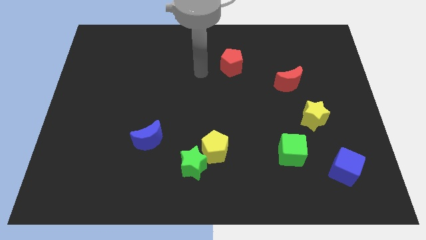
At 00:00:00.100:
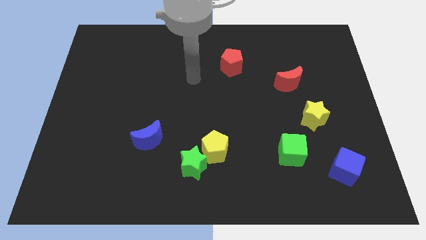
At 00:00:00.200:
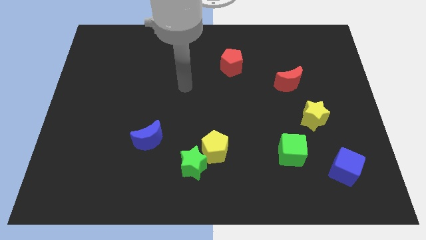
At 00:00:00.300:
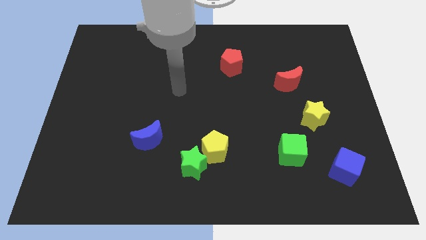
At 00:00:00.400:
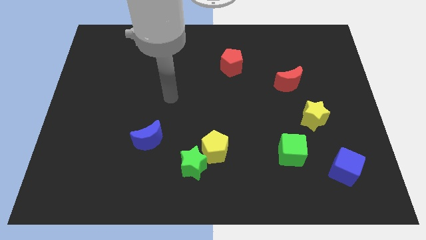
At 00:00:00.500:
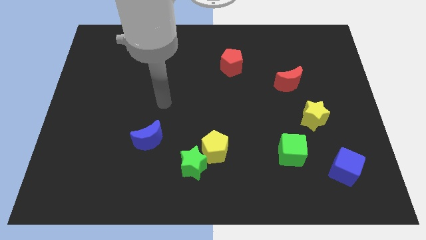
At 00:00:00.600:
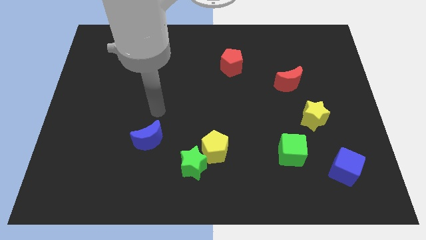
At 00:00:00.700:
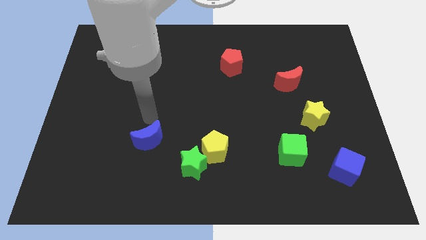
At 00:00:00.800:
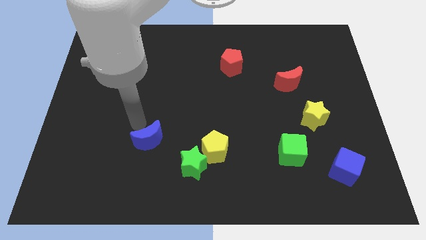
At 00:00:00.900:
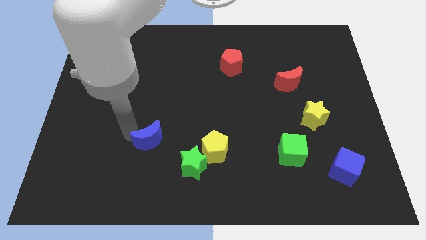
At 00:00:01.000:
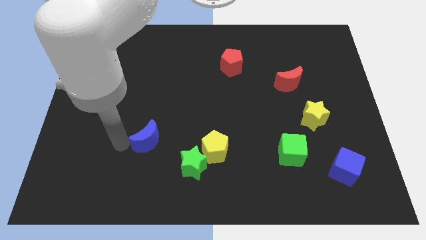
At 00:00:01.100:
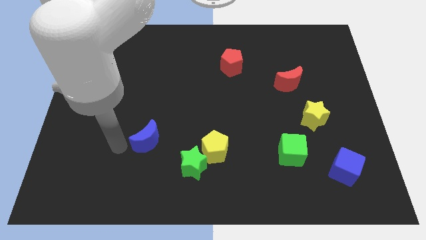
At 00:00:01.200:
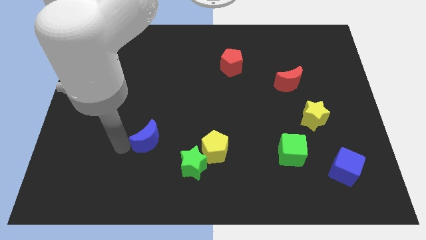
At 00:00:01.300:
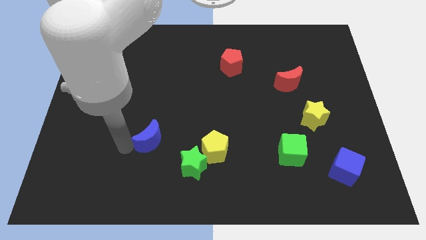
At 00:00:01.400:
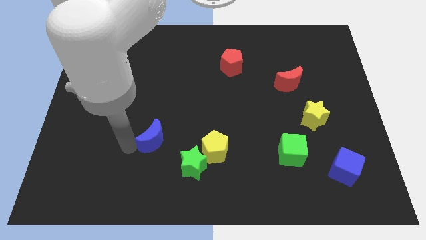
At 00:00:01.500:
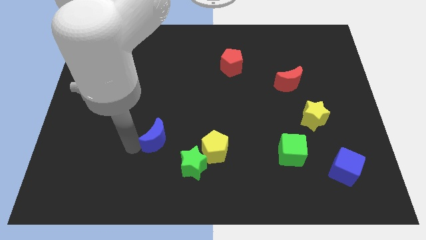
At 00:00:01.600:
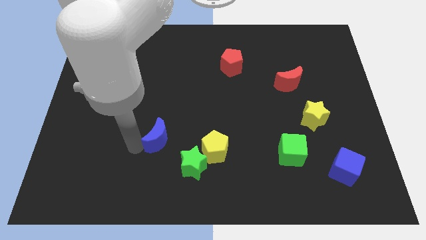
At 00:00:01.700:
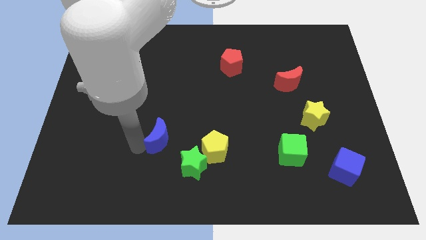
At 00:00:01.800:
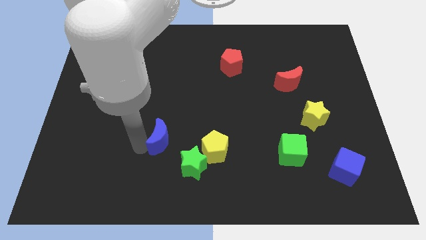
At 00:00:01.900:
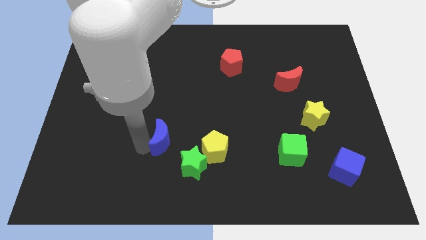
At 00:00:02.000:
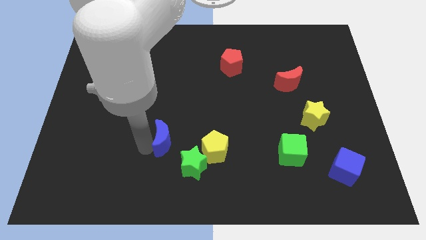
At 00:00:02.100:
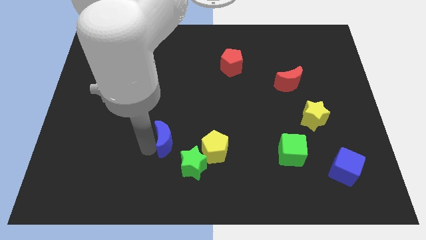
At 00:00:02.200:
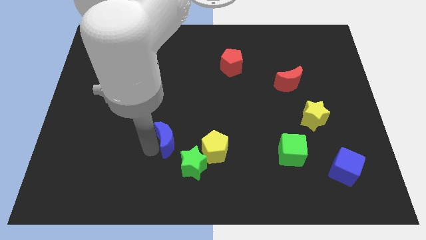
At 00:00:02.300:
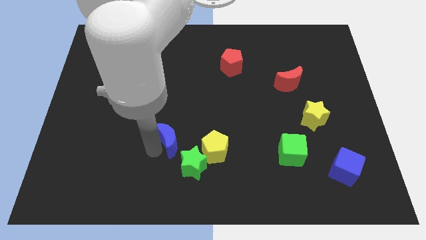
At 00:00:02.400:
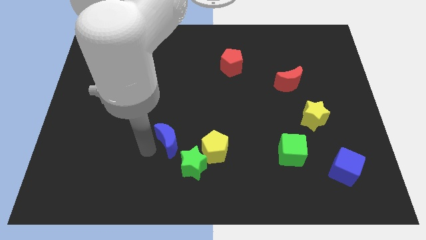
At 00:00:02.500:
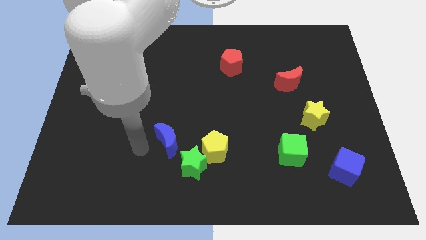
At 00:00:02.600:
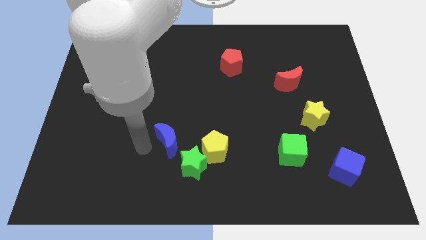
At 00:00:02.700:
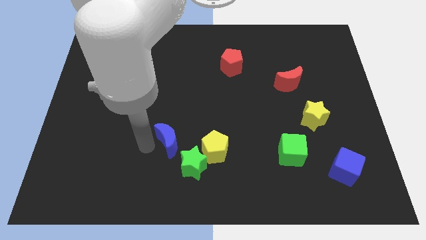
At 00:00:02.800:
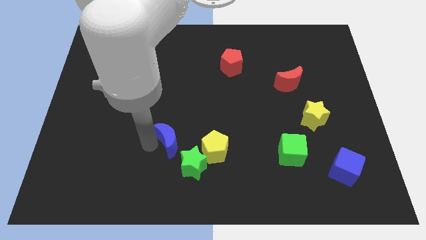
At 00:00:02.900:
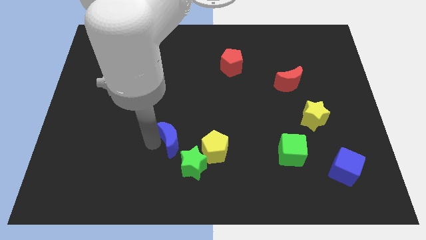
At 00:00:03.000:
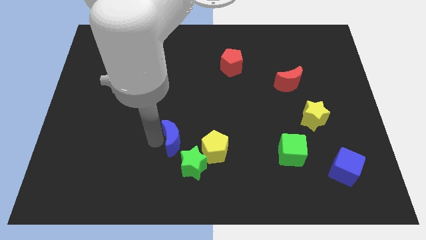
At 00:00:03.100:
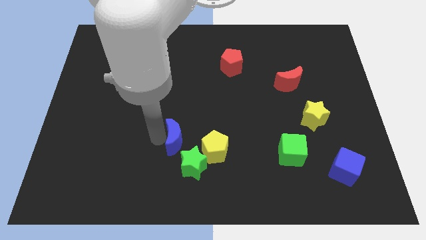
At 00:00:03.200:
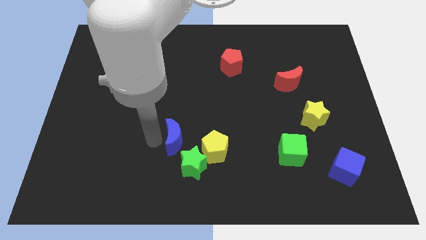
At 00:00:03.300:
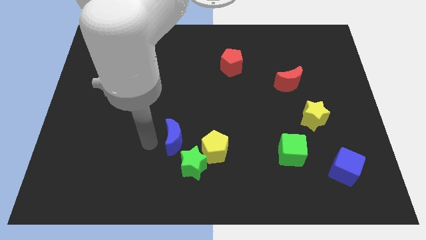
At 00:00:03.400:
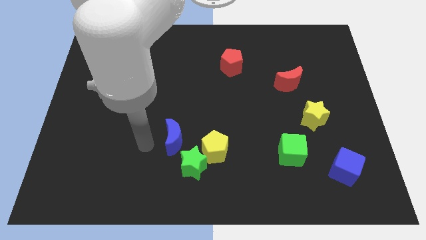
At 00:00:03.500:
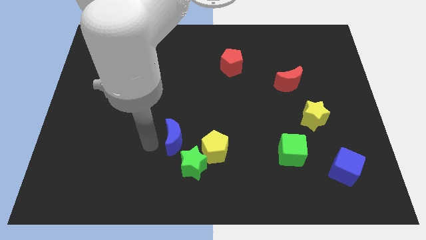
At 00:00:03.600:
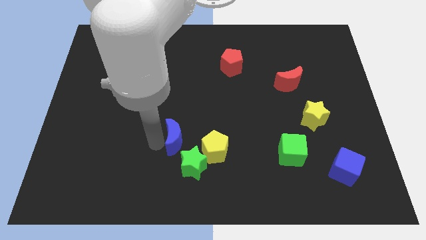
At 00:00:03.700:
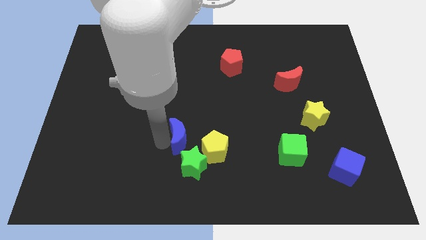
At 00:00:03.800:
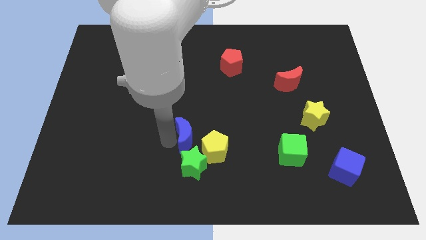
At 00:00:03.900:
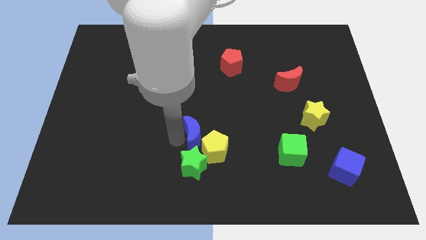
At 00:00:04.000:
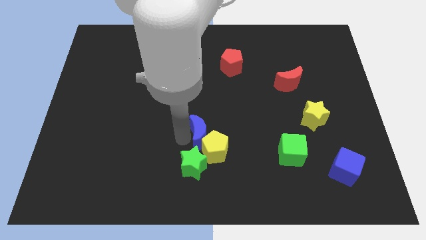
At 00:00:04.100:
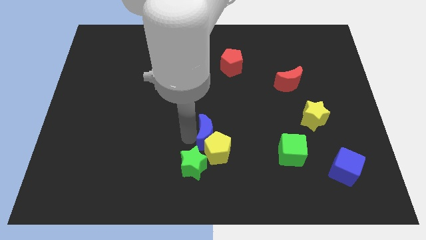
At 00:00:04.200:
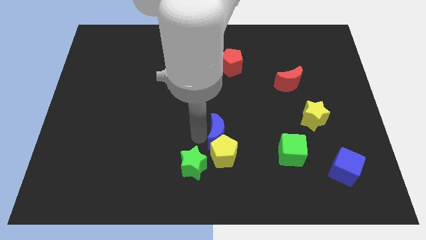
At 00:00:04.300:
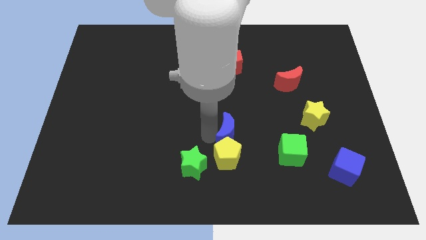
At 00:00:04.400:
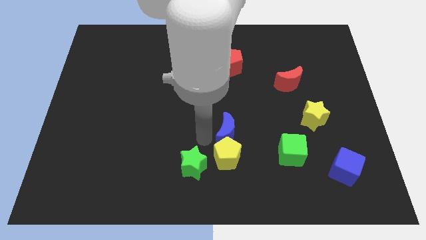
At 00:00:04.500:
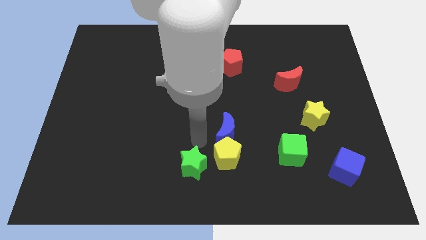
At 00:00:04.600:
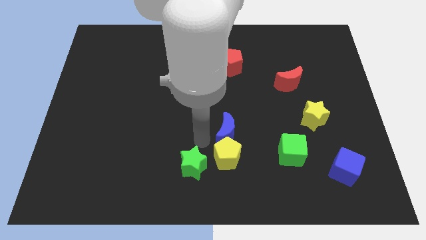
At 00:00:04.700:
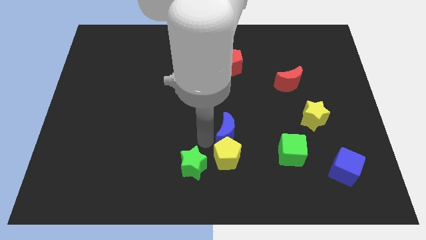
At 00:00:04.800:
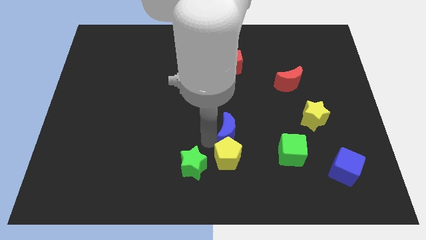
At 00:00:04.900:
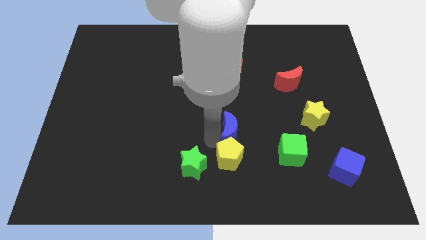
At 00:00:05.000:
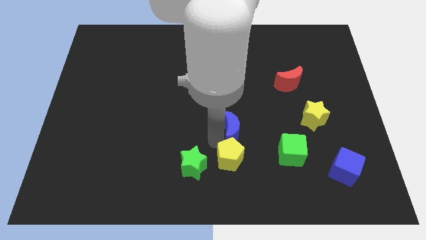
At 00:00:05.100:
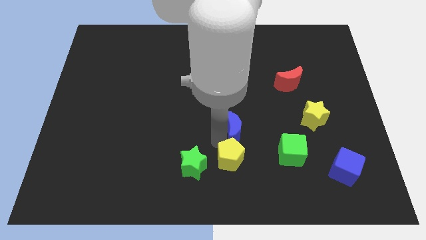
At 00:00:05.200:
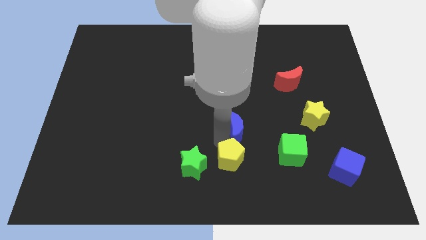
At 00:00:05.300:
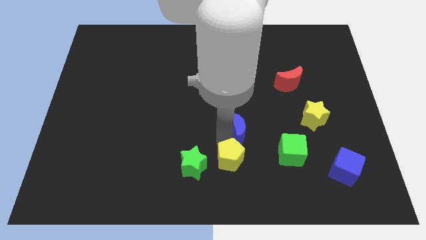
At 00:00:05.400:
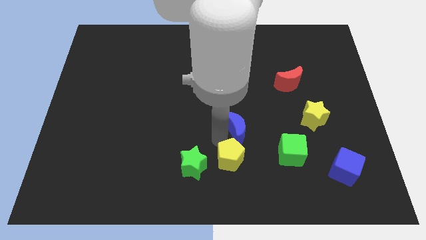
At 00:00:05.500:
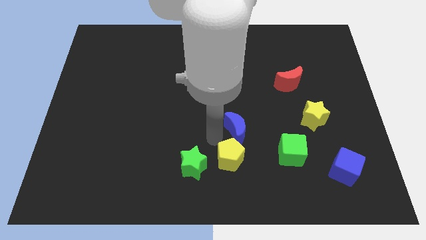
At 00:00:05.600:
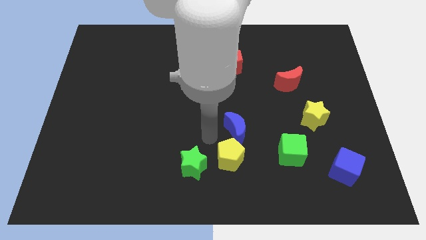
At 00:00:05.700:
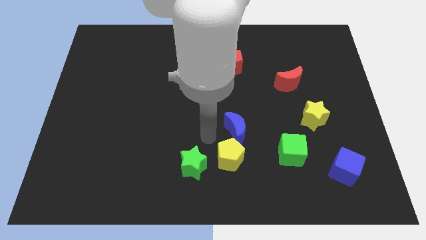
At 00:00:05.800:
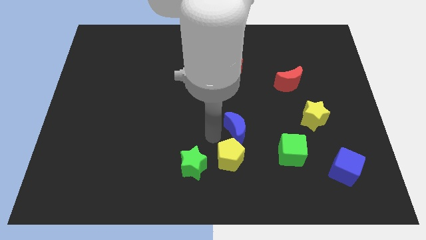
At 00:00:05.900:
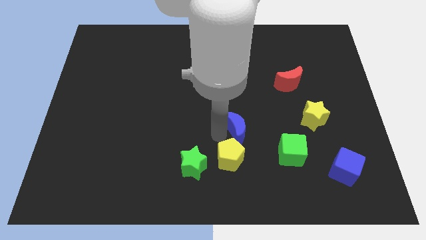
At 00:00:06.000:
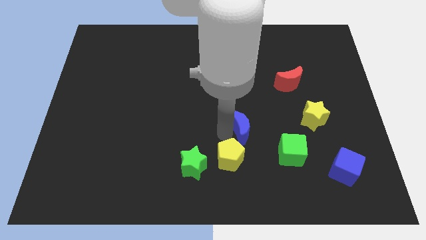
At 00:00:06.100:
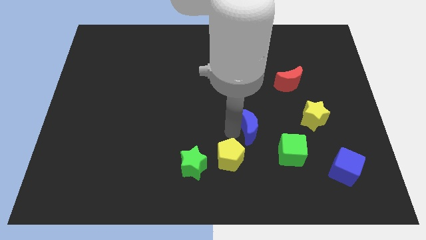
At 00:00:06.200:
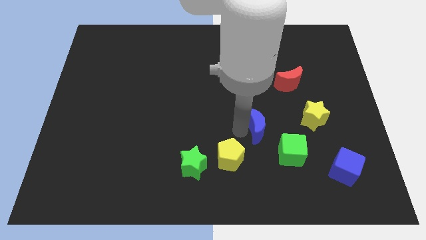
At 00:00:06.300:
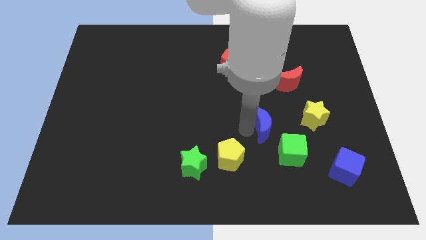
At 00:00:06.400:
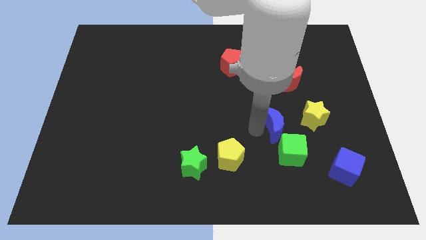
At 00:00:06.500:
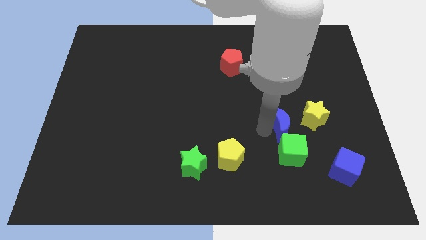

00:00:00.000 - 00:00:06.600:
slide the blue moon to the bottom side of the red moon

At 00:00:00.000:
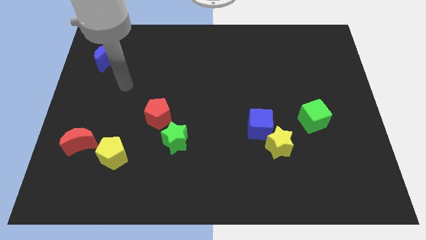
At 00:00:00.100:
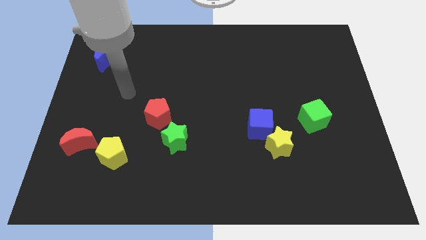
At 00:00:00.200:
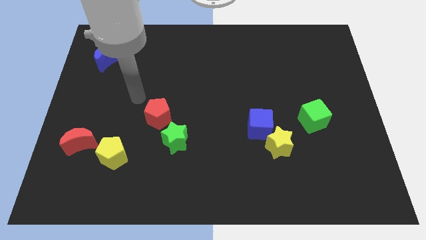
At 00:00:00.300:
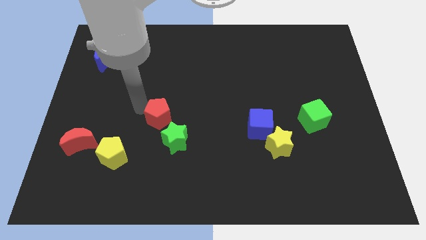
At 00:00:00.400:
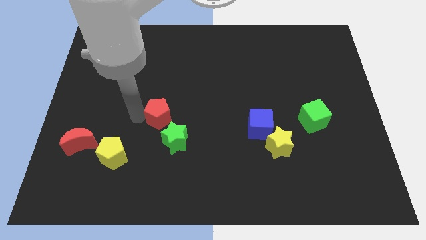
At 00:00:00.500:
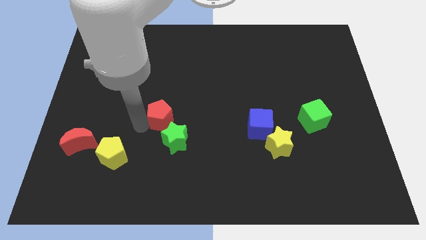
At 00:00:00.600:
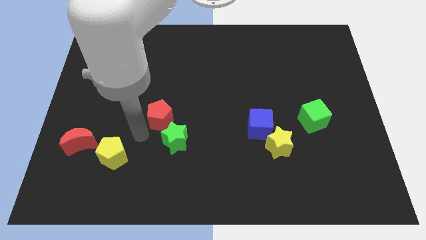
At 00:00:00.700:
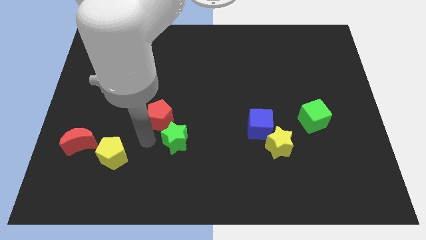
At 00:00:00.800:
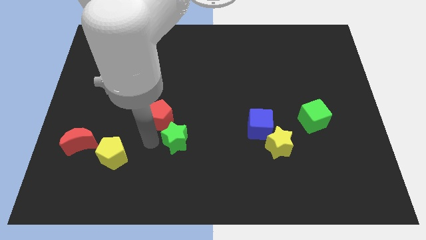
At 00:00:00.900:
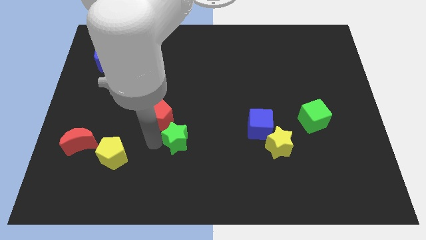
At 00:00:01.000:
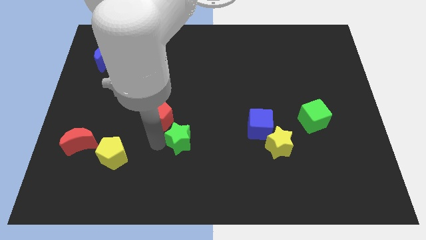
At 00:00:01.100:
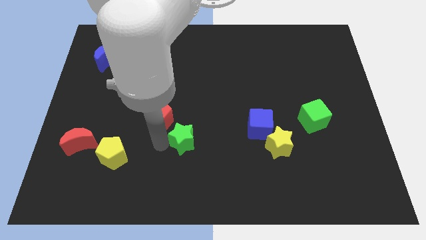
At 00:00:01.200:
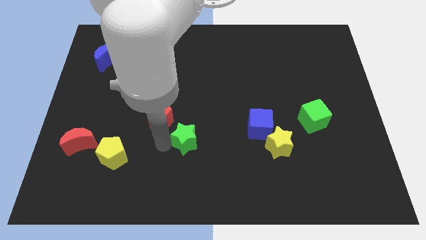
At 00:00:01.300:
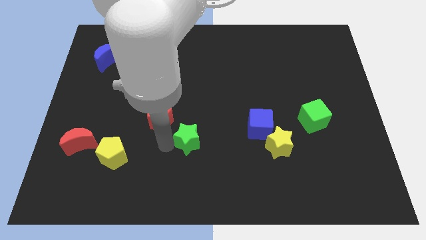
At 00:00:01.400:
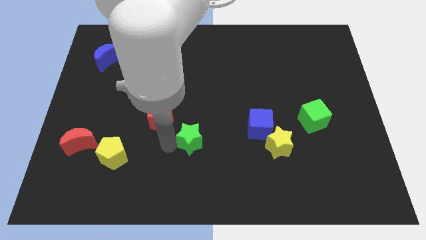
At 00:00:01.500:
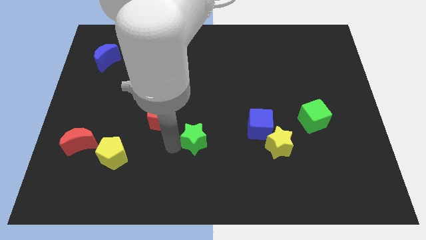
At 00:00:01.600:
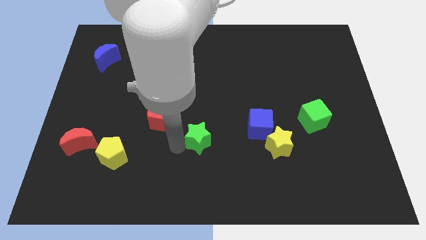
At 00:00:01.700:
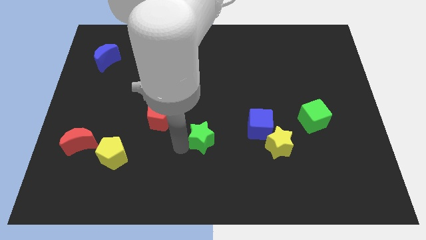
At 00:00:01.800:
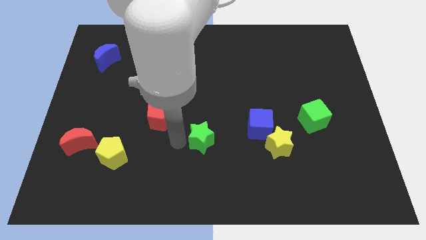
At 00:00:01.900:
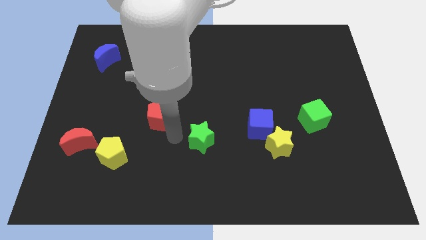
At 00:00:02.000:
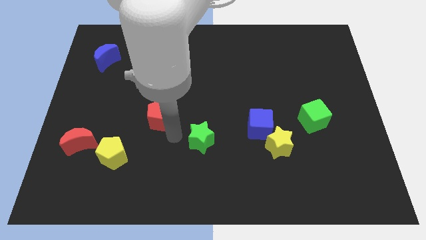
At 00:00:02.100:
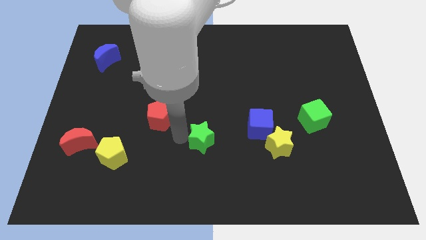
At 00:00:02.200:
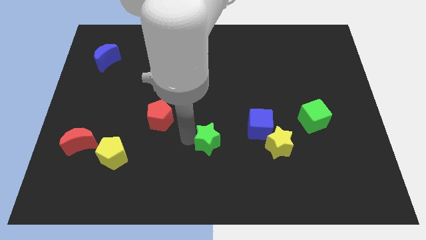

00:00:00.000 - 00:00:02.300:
put the green star to the left of the yellow star
